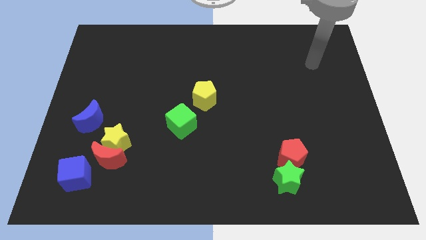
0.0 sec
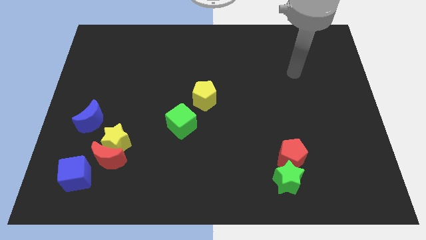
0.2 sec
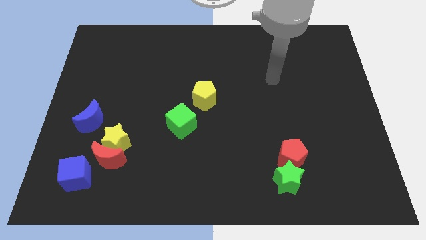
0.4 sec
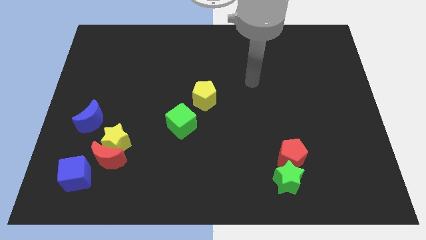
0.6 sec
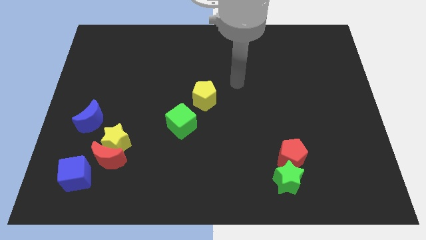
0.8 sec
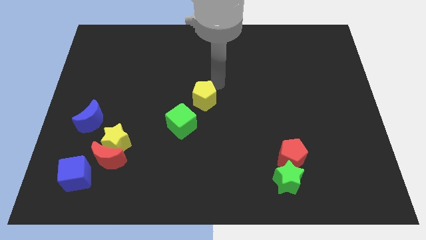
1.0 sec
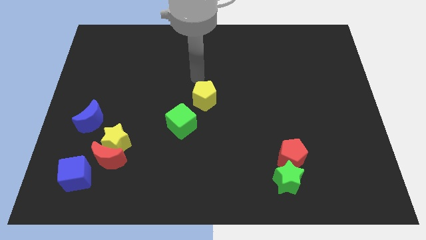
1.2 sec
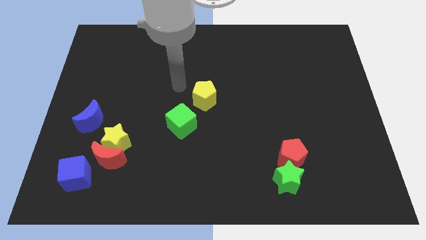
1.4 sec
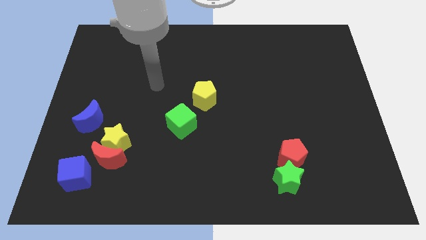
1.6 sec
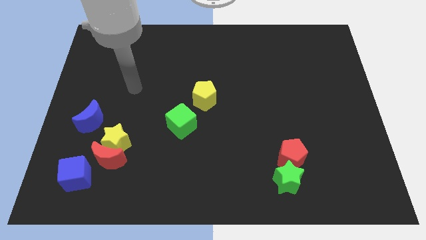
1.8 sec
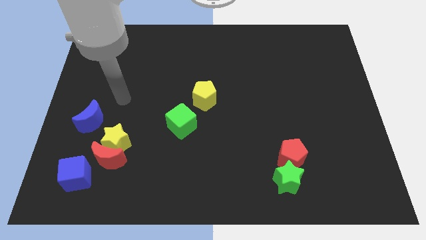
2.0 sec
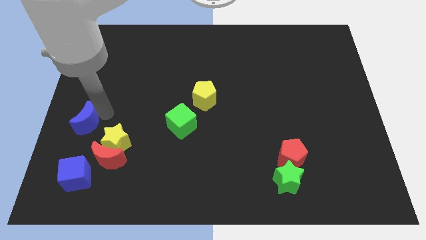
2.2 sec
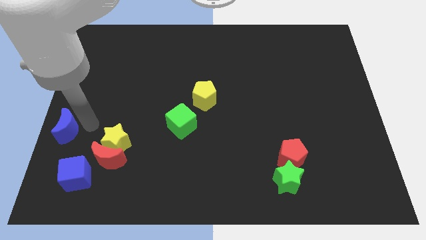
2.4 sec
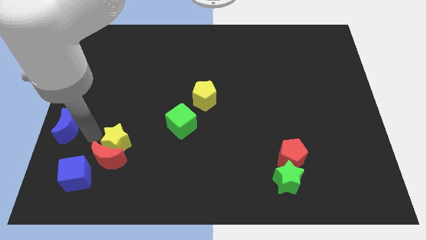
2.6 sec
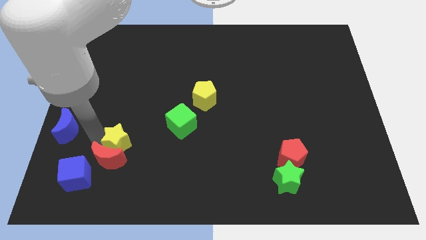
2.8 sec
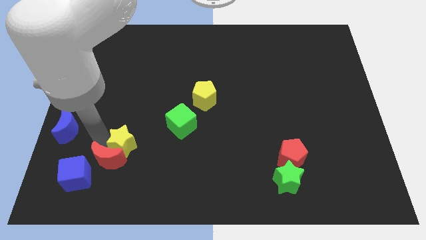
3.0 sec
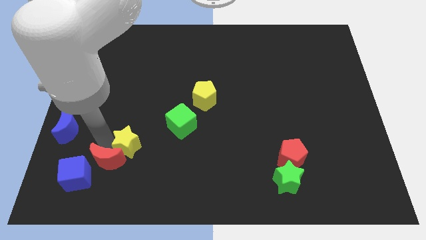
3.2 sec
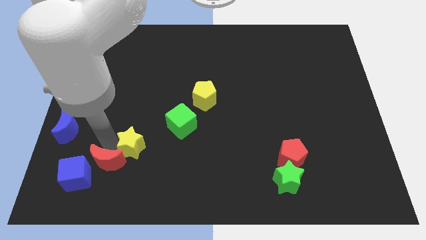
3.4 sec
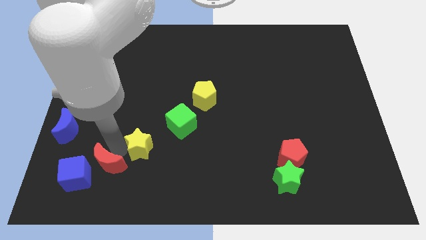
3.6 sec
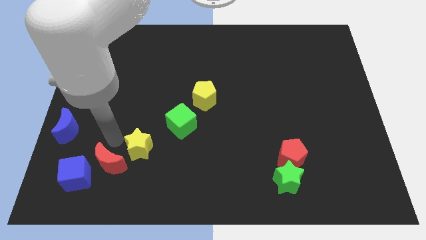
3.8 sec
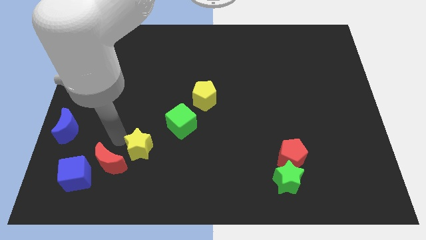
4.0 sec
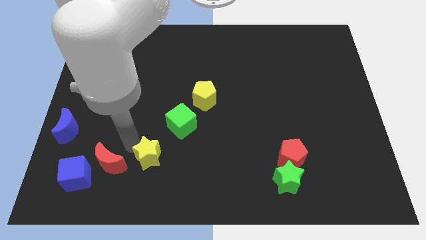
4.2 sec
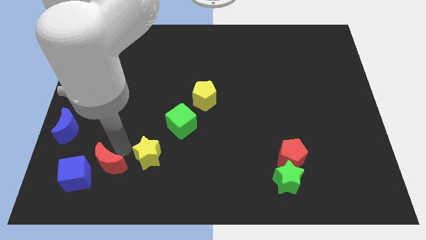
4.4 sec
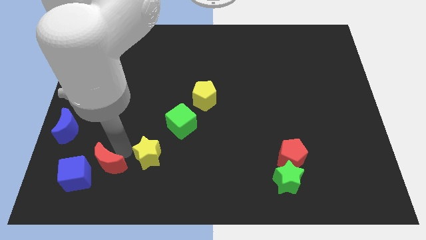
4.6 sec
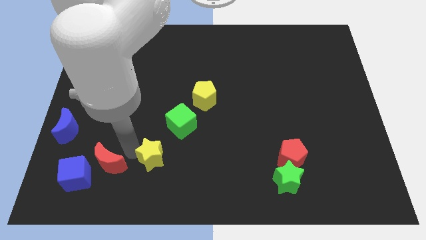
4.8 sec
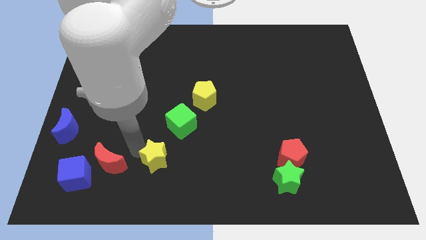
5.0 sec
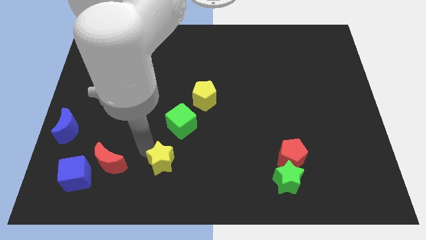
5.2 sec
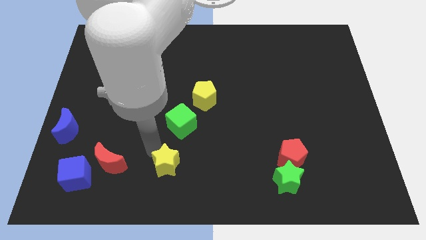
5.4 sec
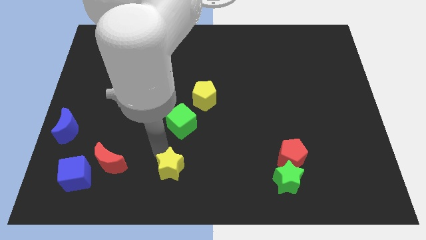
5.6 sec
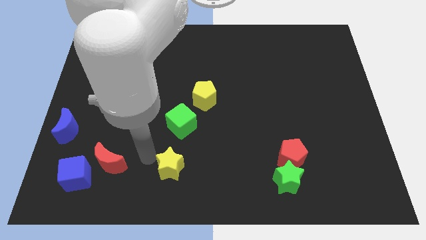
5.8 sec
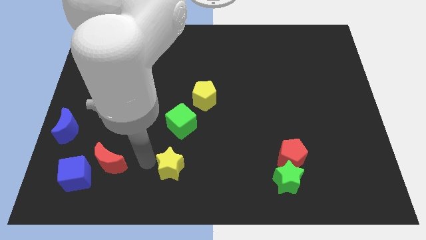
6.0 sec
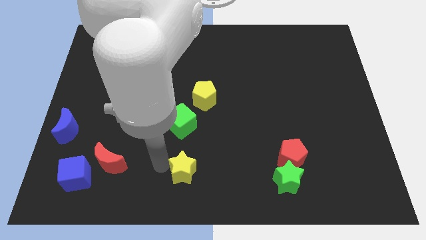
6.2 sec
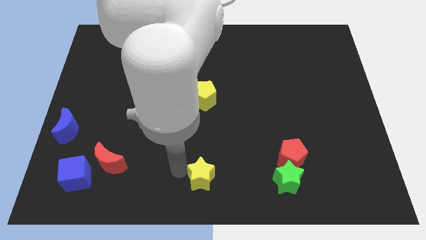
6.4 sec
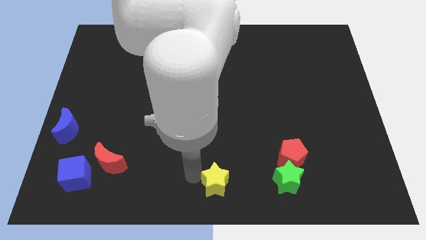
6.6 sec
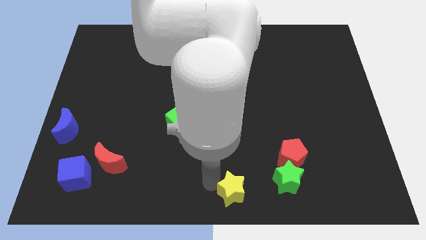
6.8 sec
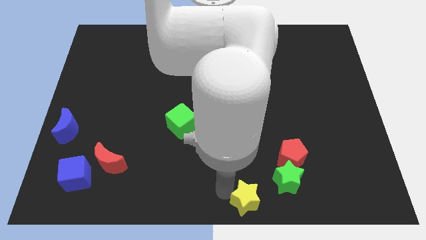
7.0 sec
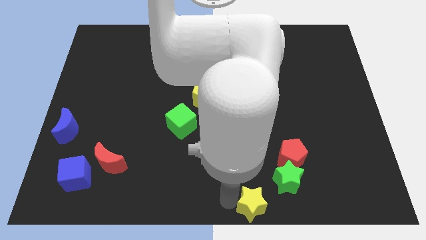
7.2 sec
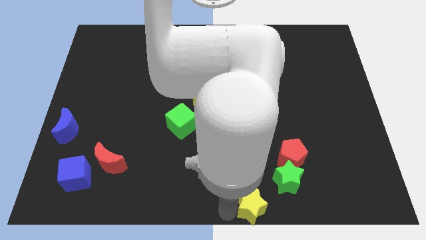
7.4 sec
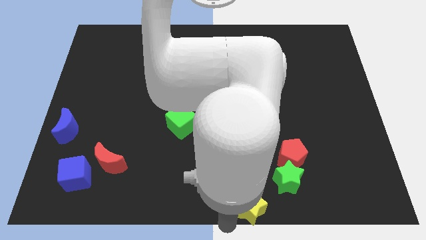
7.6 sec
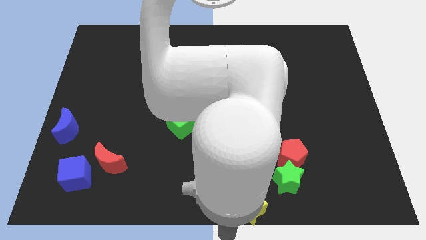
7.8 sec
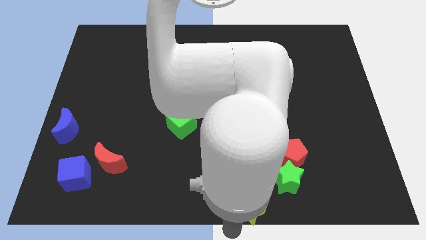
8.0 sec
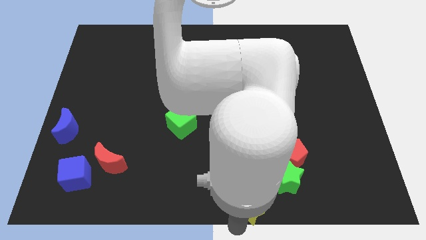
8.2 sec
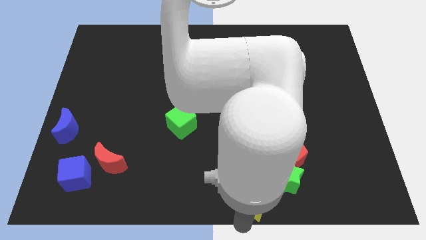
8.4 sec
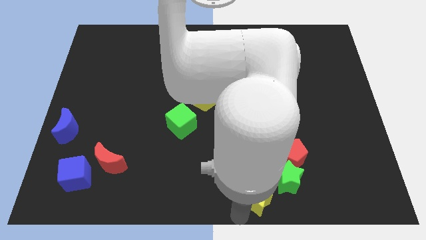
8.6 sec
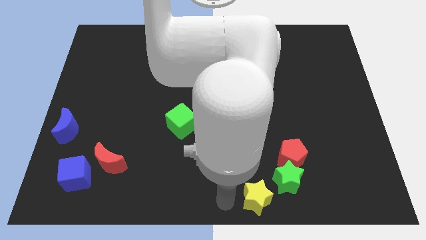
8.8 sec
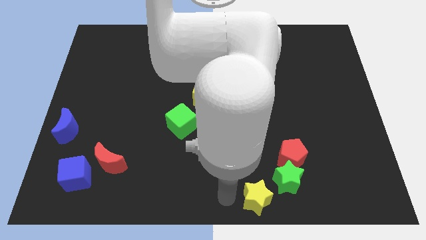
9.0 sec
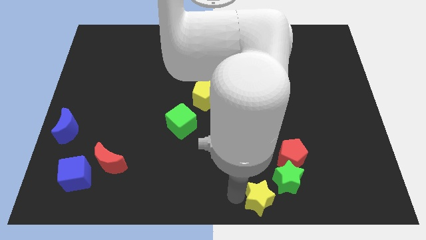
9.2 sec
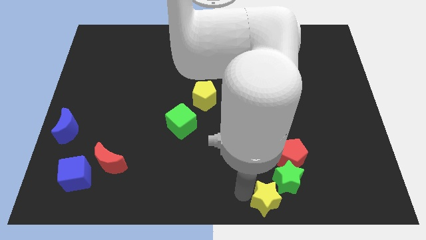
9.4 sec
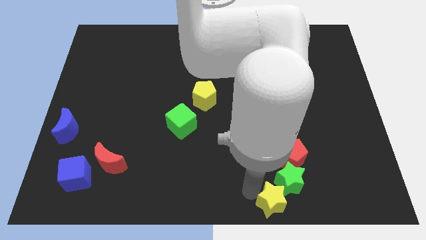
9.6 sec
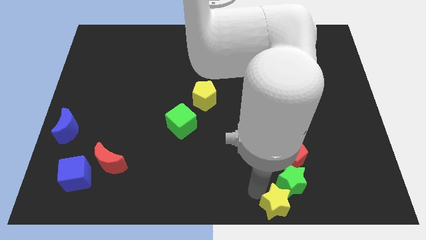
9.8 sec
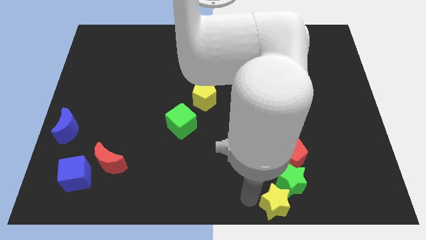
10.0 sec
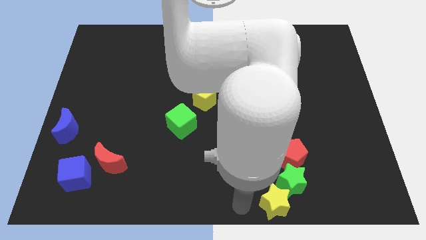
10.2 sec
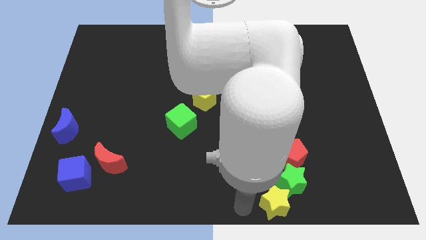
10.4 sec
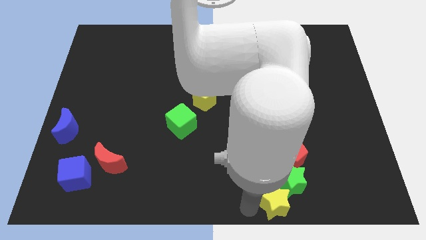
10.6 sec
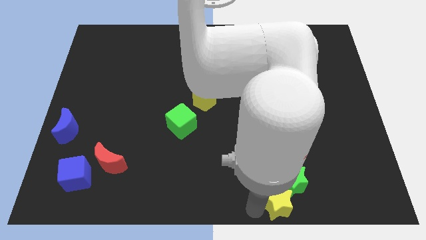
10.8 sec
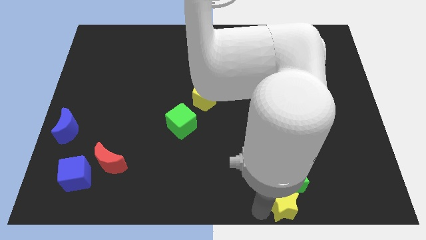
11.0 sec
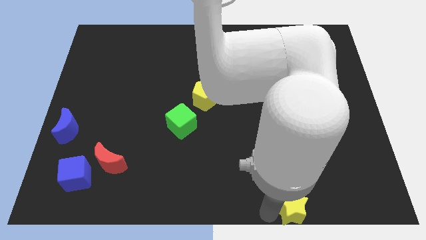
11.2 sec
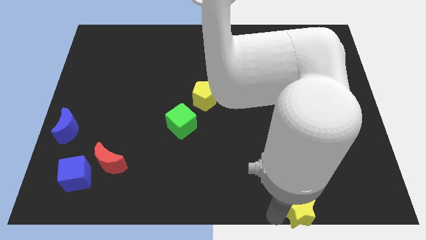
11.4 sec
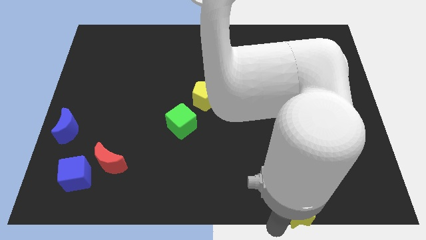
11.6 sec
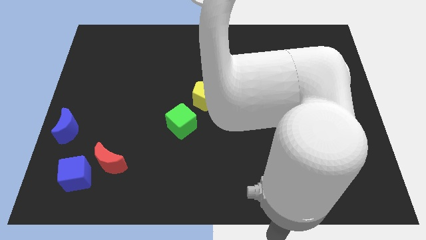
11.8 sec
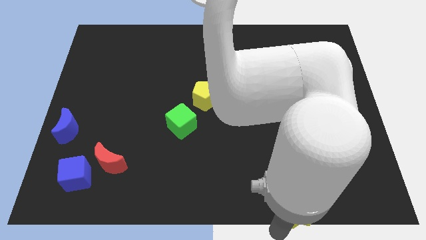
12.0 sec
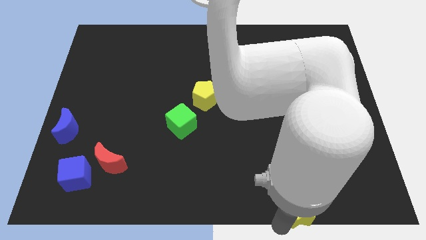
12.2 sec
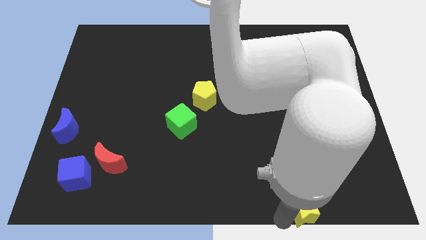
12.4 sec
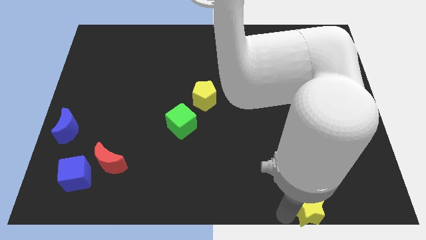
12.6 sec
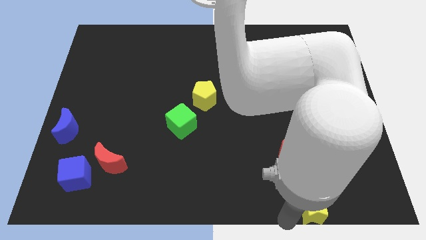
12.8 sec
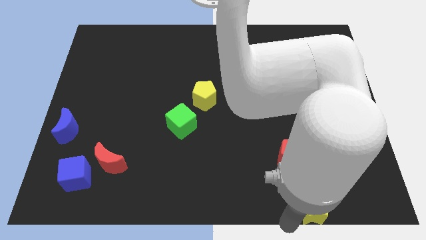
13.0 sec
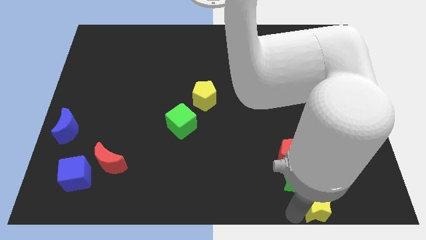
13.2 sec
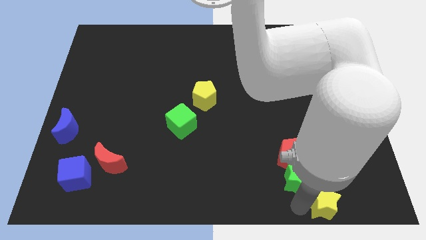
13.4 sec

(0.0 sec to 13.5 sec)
put the yellow star to the right side of the green star
